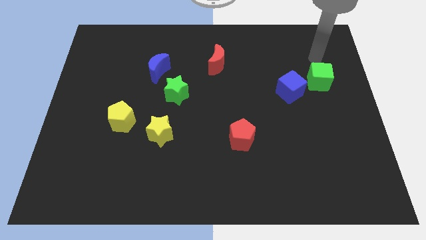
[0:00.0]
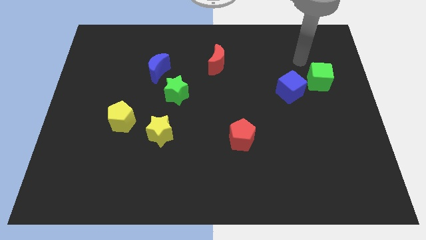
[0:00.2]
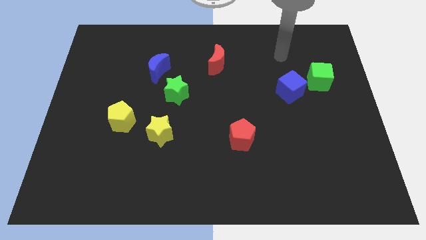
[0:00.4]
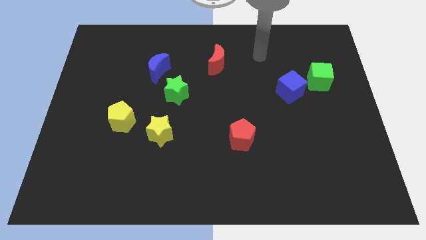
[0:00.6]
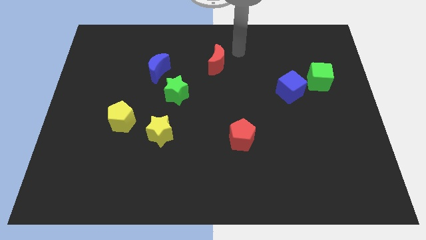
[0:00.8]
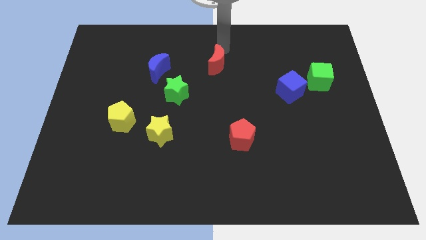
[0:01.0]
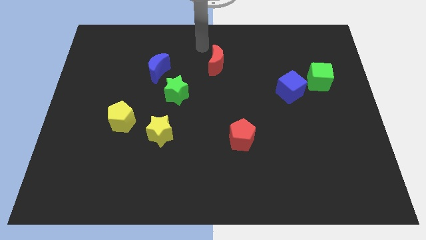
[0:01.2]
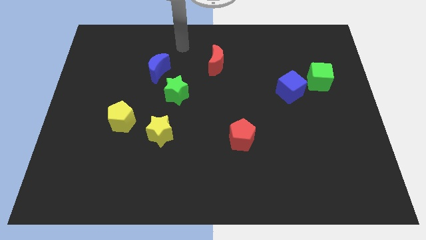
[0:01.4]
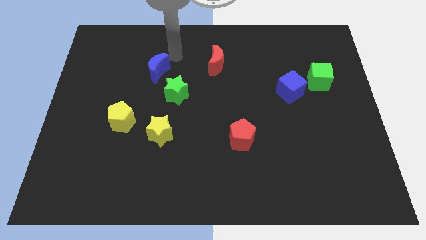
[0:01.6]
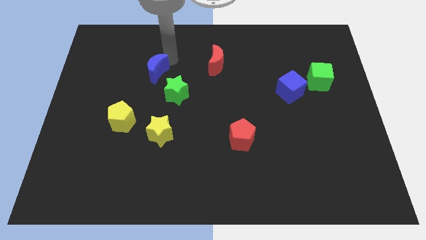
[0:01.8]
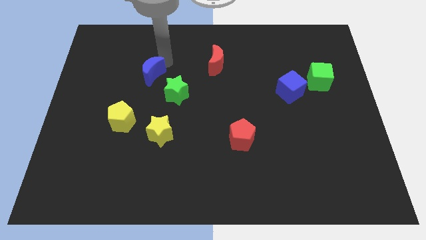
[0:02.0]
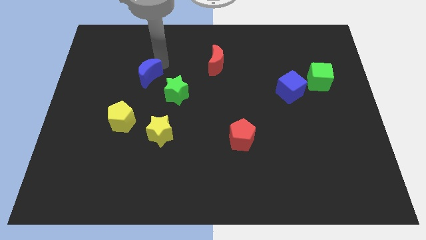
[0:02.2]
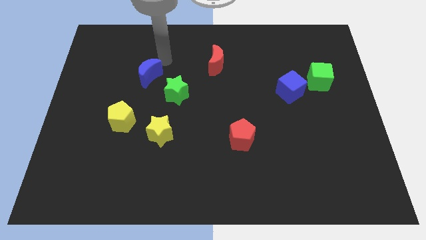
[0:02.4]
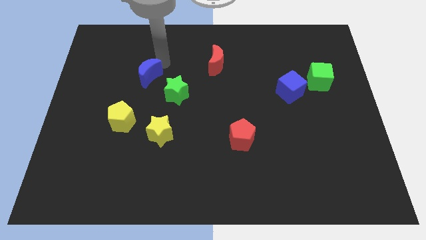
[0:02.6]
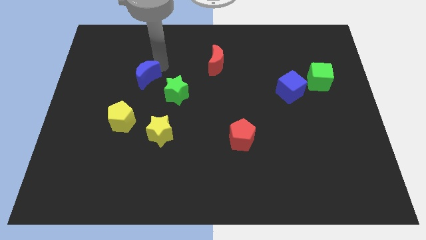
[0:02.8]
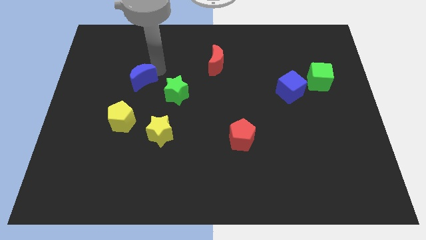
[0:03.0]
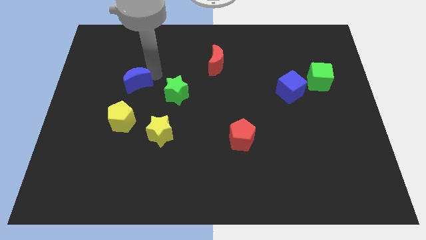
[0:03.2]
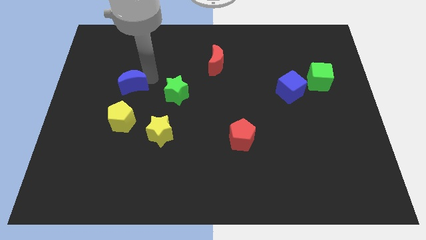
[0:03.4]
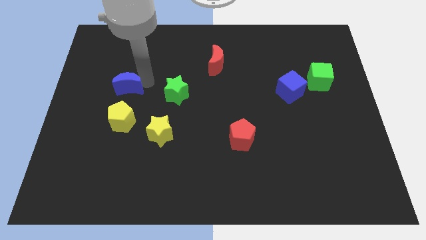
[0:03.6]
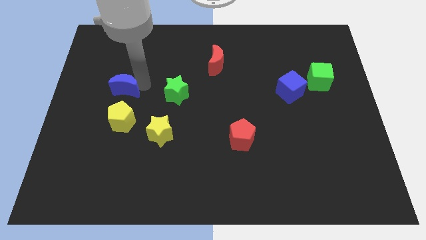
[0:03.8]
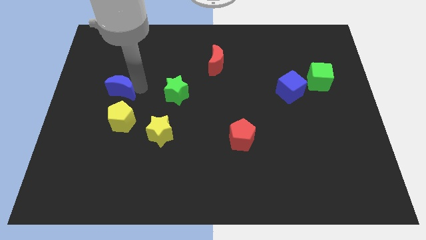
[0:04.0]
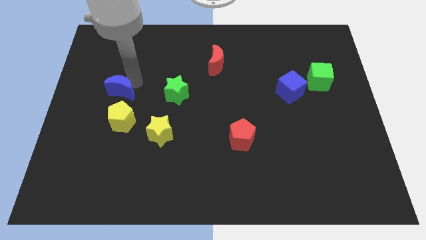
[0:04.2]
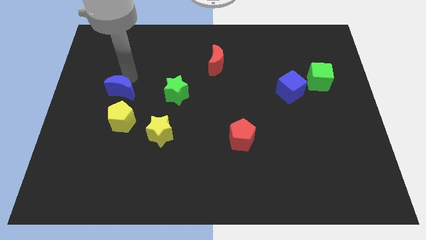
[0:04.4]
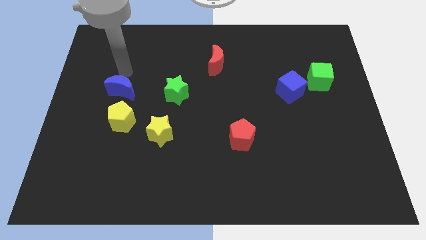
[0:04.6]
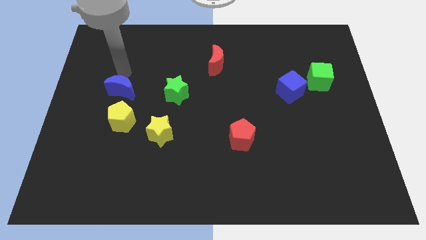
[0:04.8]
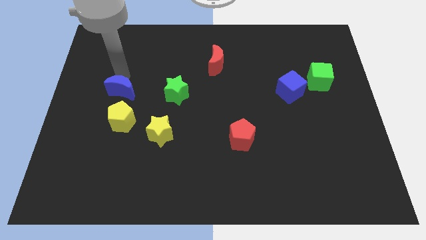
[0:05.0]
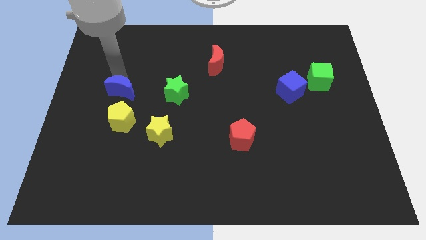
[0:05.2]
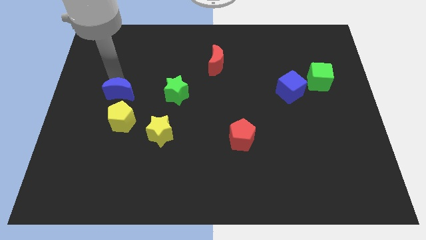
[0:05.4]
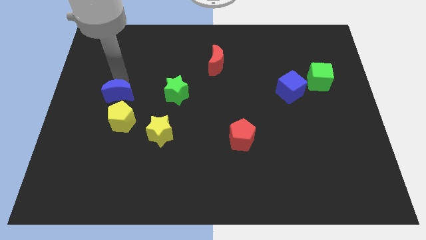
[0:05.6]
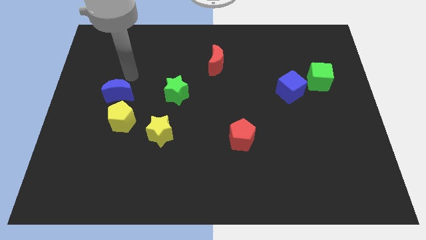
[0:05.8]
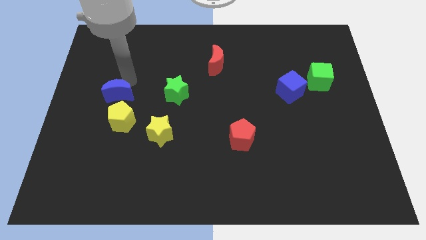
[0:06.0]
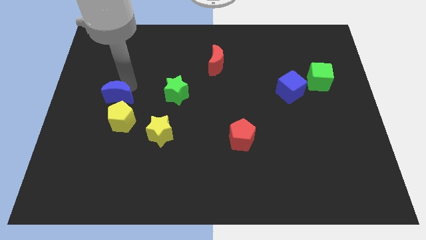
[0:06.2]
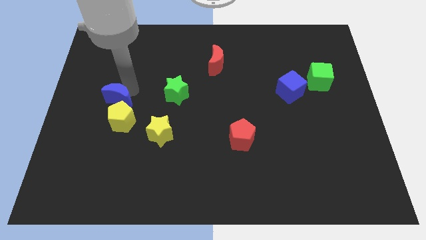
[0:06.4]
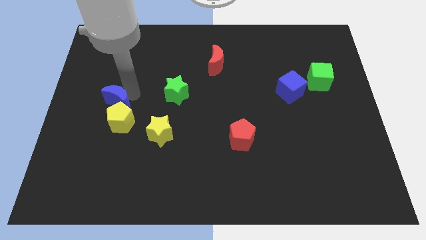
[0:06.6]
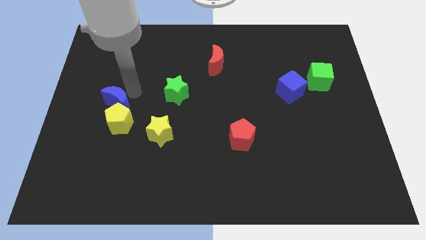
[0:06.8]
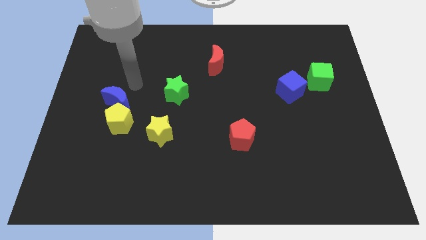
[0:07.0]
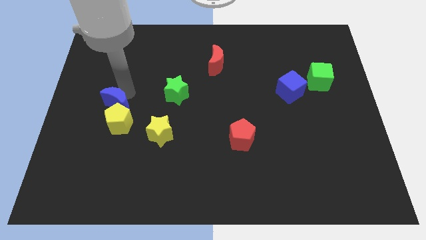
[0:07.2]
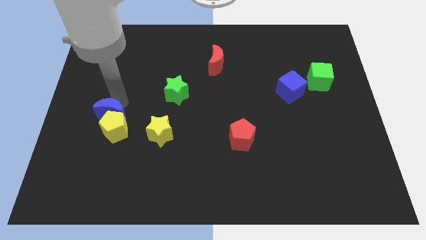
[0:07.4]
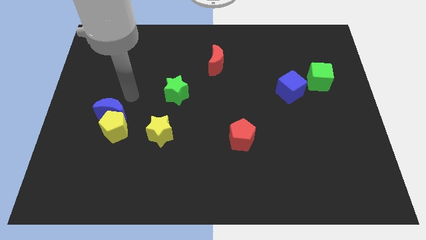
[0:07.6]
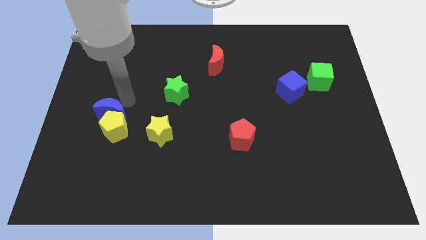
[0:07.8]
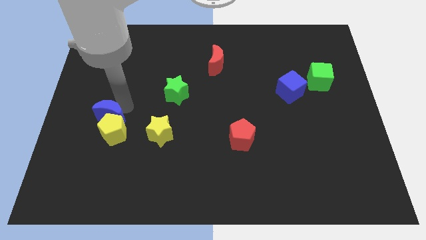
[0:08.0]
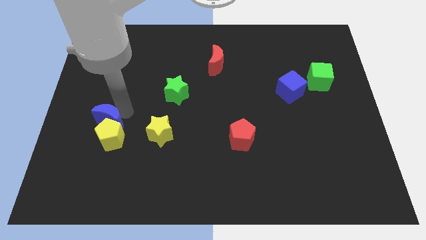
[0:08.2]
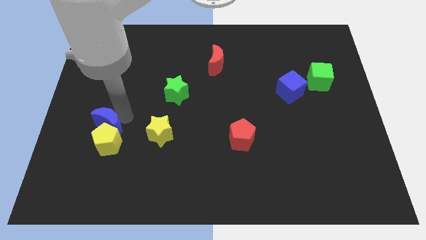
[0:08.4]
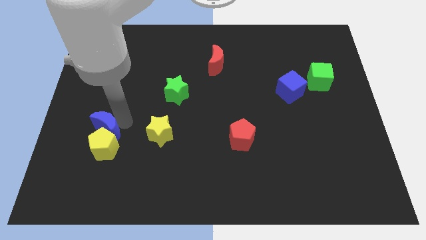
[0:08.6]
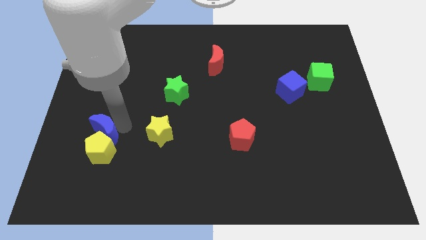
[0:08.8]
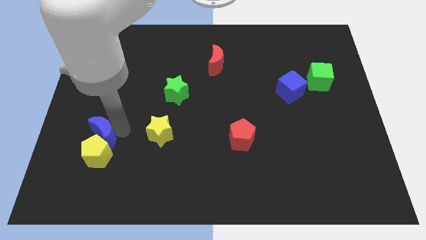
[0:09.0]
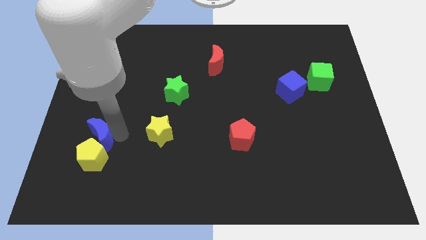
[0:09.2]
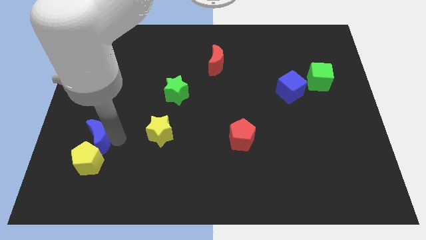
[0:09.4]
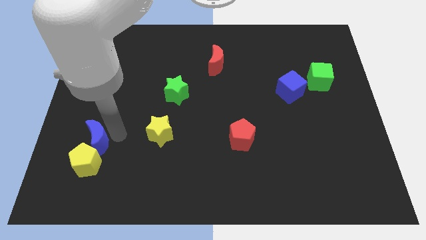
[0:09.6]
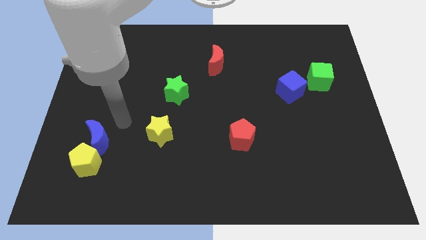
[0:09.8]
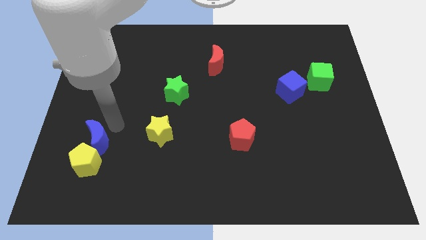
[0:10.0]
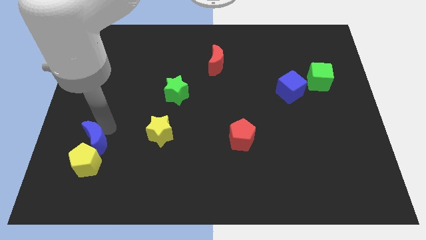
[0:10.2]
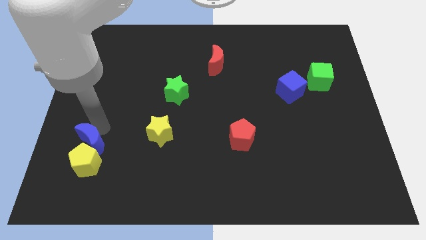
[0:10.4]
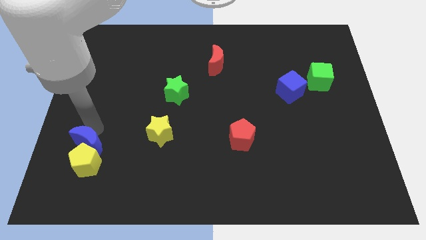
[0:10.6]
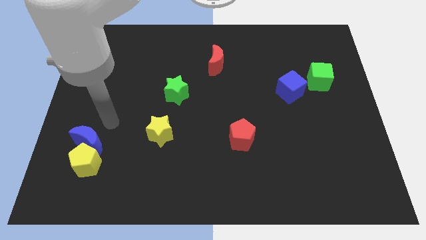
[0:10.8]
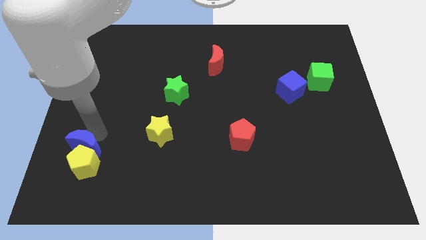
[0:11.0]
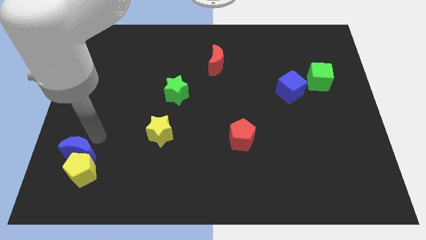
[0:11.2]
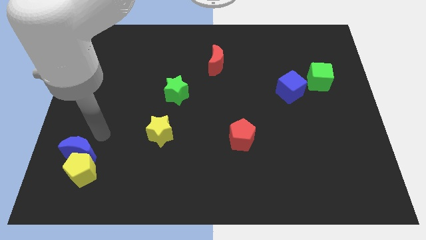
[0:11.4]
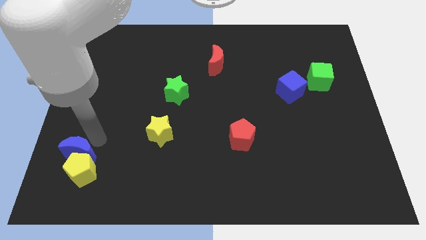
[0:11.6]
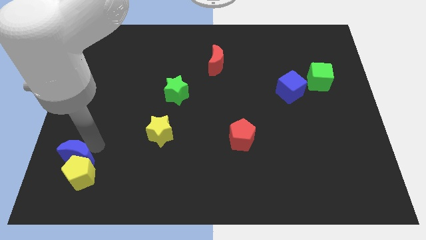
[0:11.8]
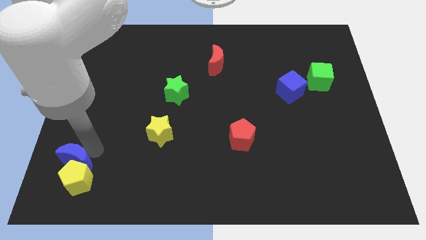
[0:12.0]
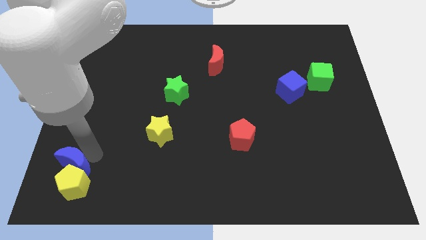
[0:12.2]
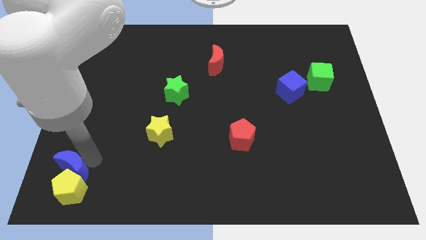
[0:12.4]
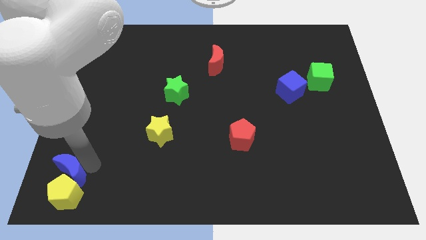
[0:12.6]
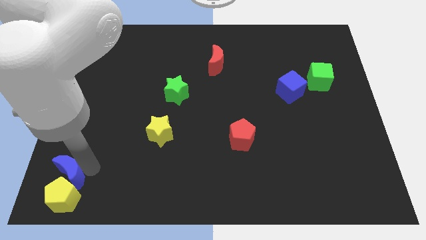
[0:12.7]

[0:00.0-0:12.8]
slide the blue moon to the lower left corner

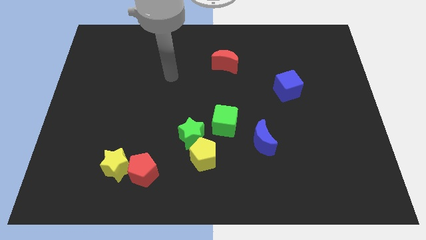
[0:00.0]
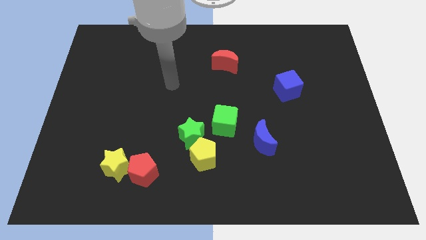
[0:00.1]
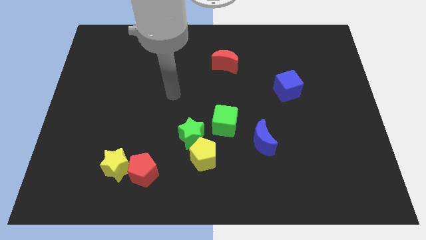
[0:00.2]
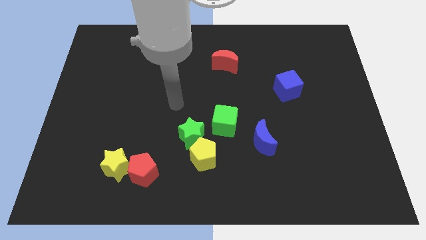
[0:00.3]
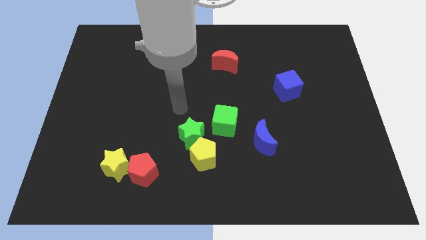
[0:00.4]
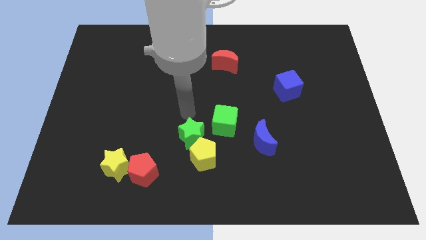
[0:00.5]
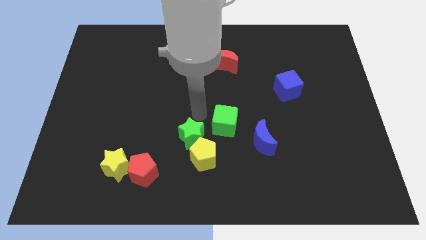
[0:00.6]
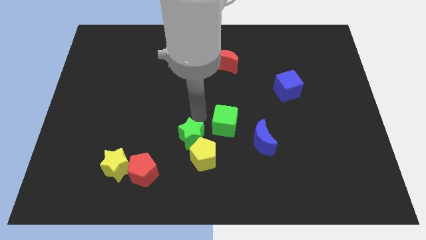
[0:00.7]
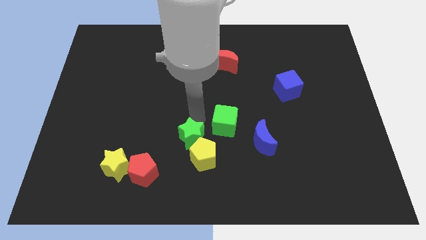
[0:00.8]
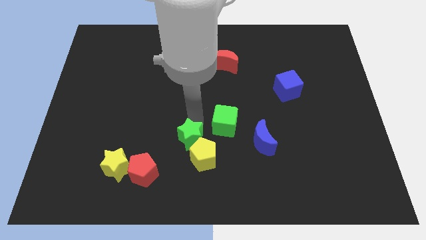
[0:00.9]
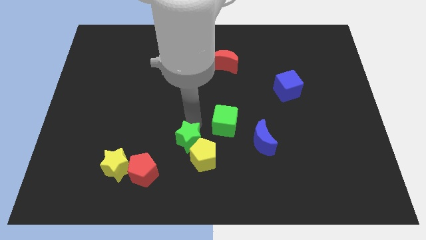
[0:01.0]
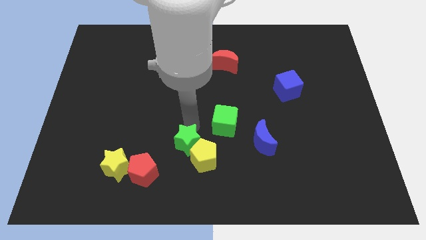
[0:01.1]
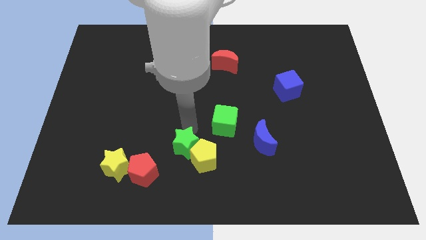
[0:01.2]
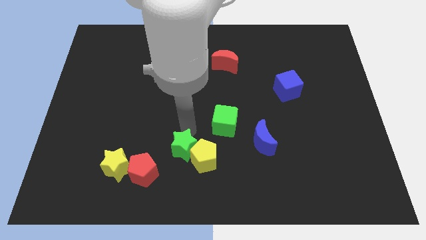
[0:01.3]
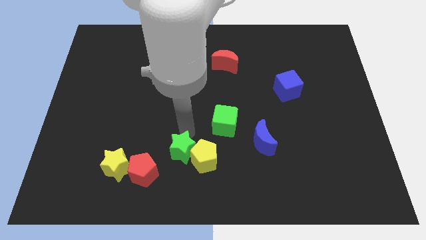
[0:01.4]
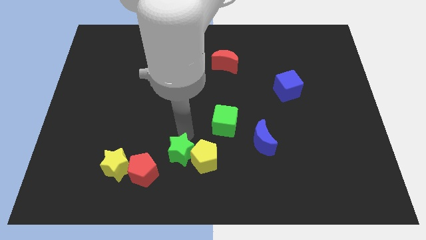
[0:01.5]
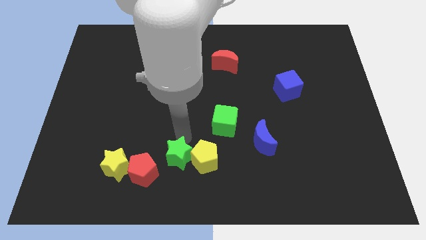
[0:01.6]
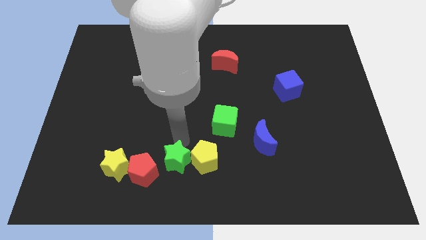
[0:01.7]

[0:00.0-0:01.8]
push the green star to the bottom side
